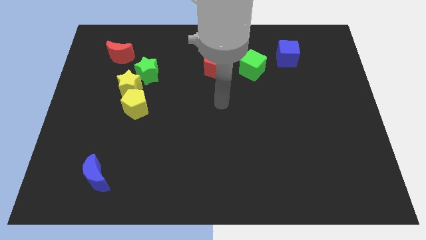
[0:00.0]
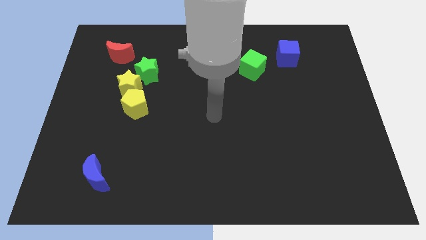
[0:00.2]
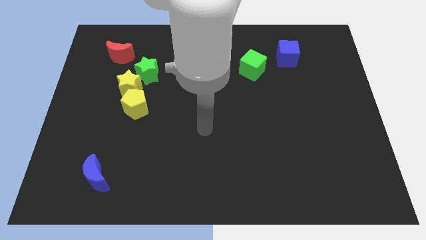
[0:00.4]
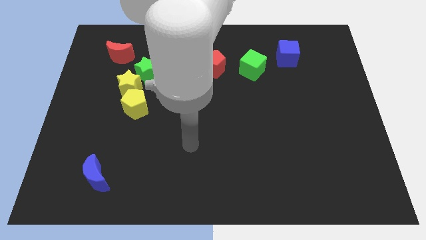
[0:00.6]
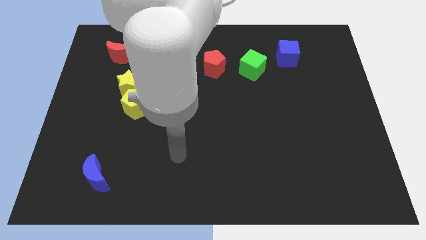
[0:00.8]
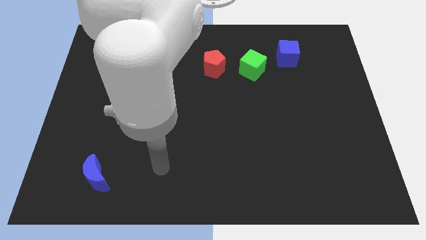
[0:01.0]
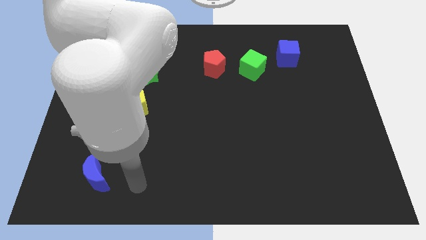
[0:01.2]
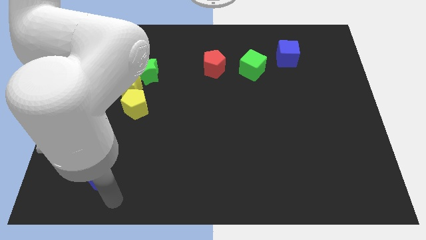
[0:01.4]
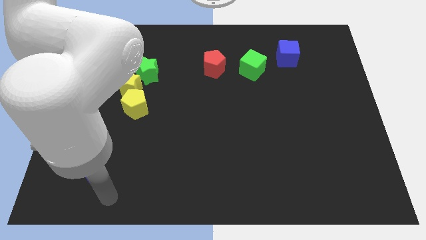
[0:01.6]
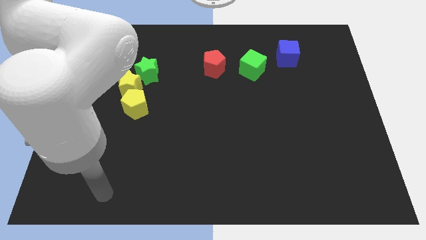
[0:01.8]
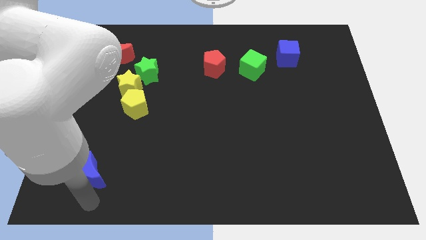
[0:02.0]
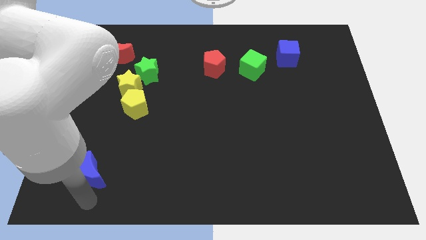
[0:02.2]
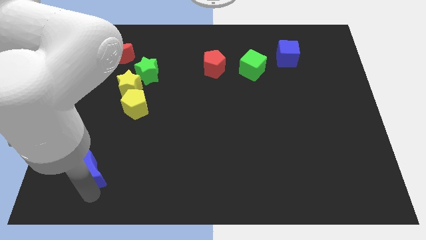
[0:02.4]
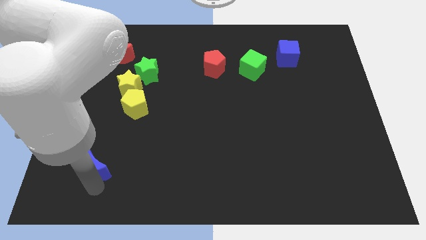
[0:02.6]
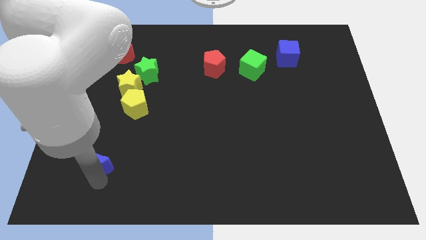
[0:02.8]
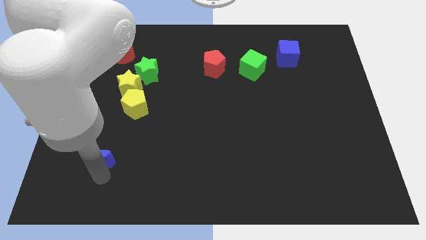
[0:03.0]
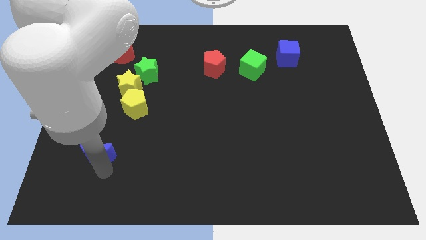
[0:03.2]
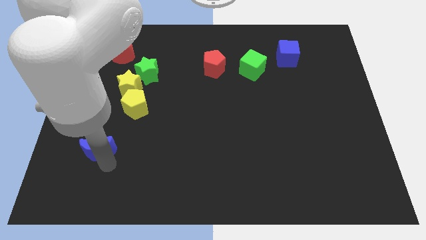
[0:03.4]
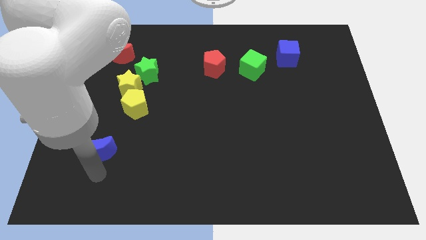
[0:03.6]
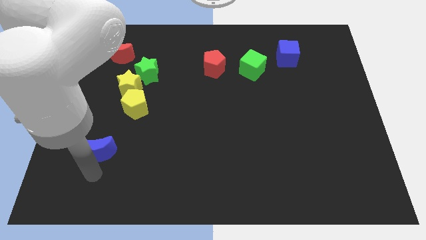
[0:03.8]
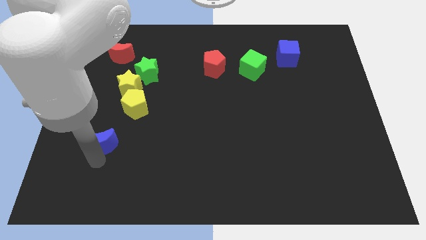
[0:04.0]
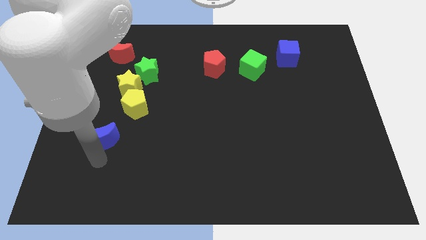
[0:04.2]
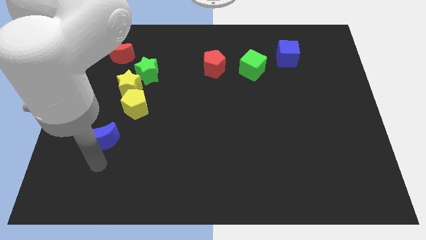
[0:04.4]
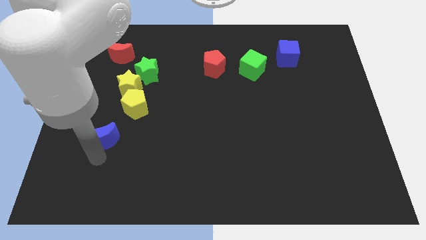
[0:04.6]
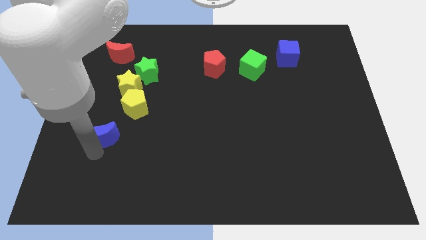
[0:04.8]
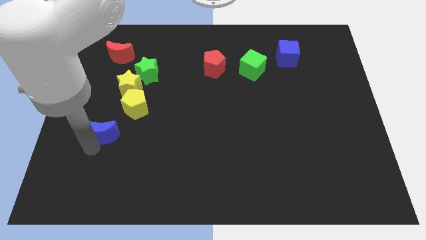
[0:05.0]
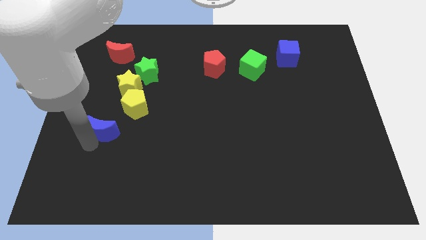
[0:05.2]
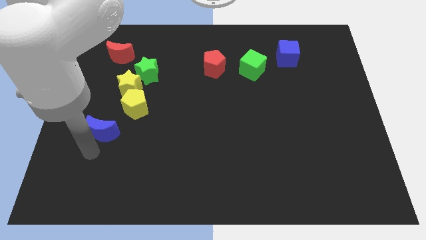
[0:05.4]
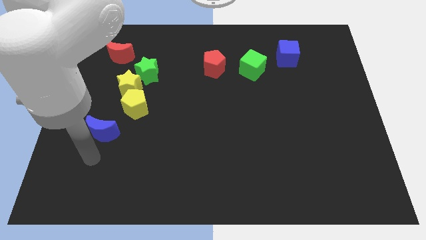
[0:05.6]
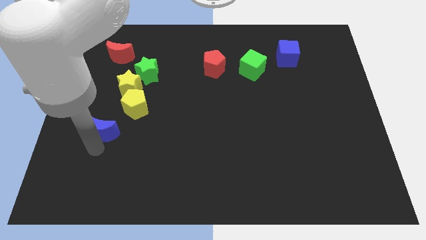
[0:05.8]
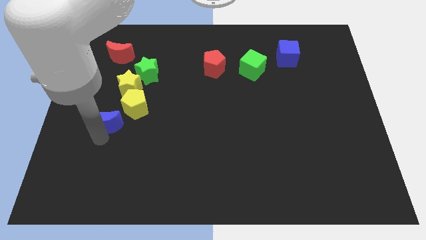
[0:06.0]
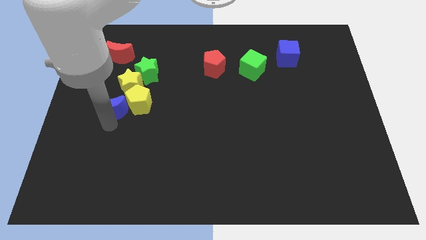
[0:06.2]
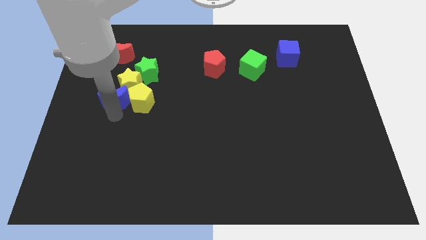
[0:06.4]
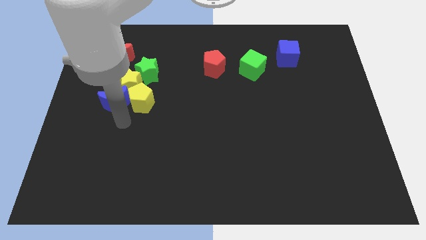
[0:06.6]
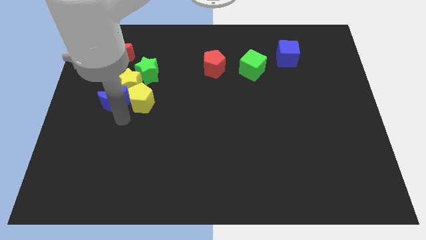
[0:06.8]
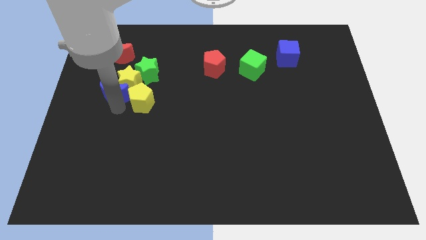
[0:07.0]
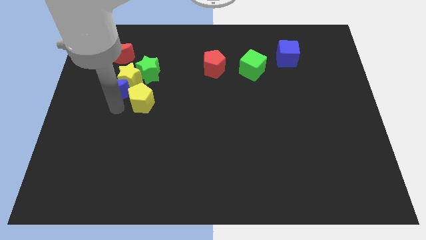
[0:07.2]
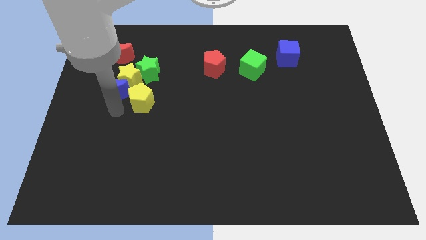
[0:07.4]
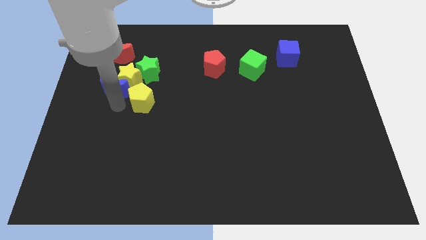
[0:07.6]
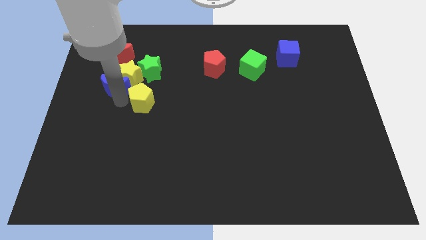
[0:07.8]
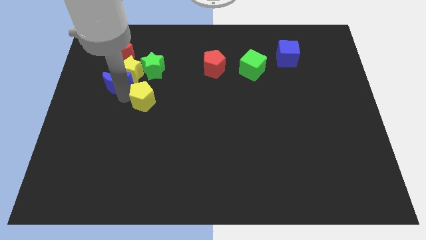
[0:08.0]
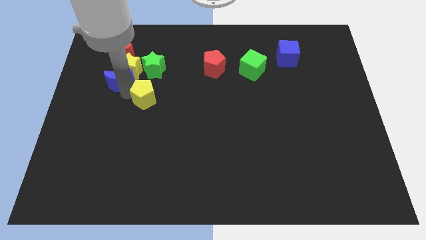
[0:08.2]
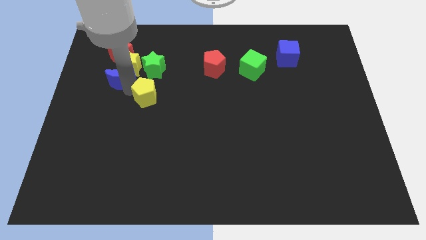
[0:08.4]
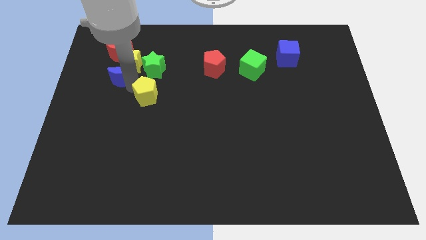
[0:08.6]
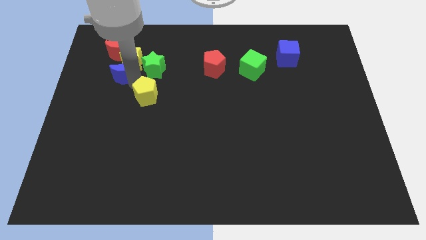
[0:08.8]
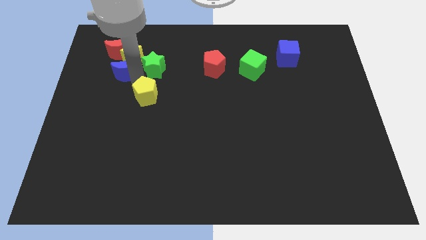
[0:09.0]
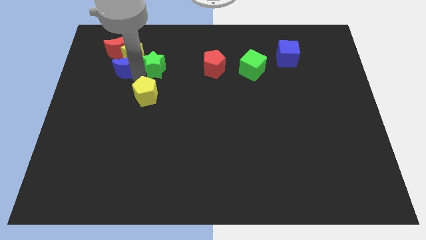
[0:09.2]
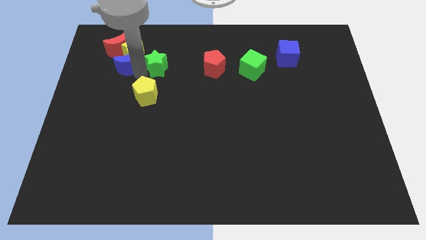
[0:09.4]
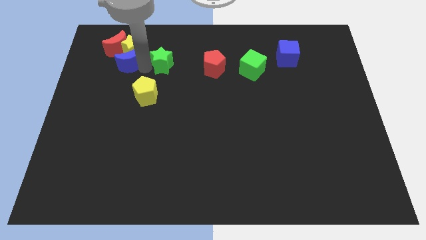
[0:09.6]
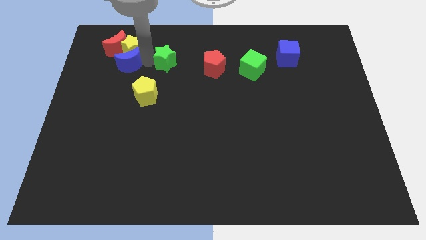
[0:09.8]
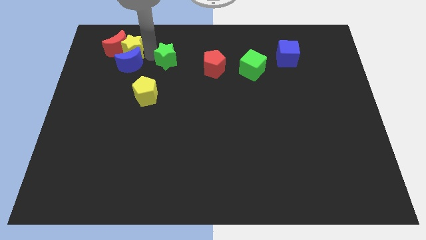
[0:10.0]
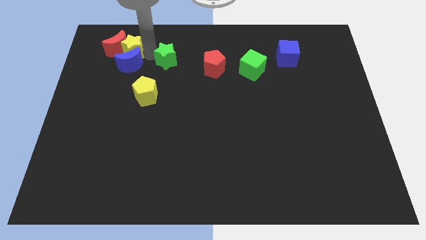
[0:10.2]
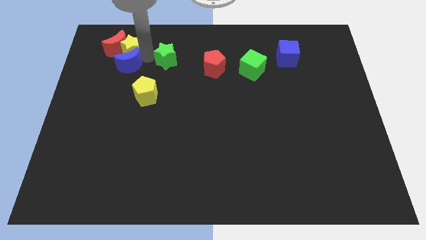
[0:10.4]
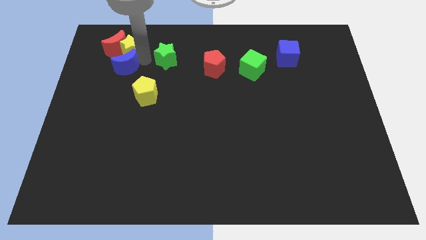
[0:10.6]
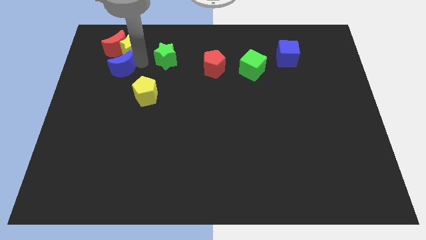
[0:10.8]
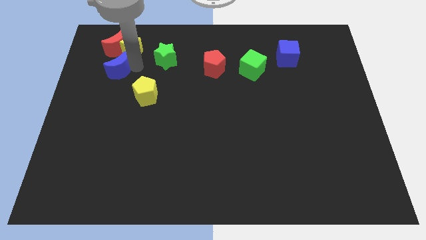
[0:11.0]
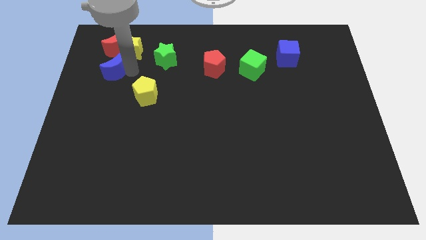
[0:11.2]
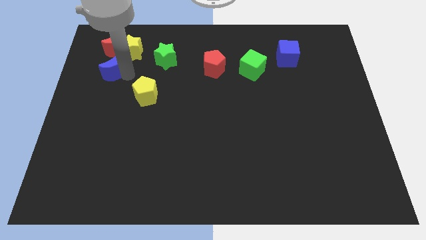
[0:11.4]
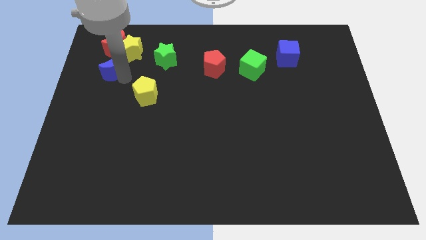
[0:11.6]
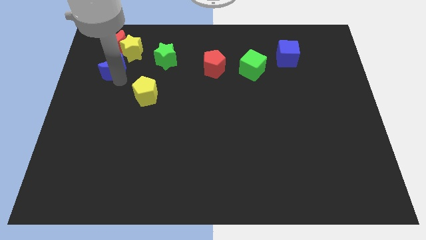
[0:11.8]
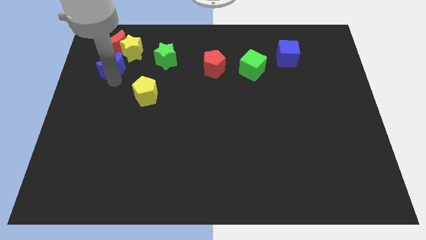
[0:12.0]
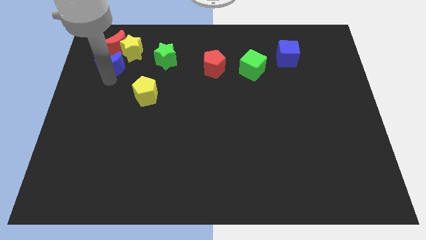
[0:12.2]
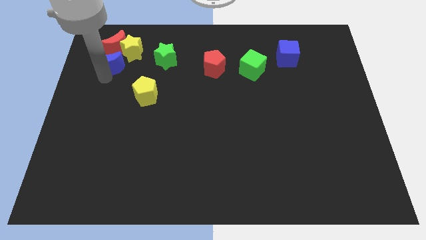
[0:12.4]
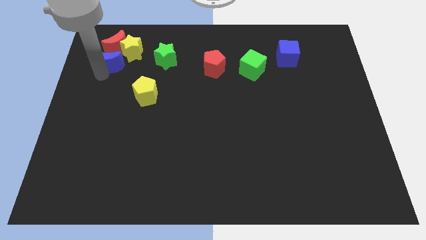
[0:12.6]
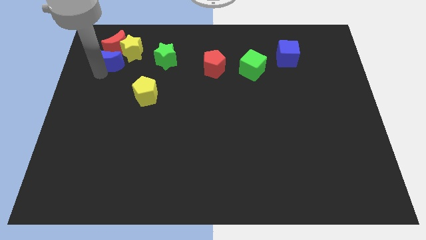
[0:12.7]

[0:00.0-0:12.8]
move the blue moon close to the red moon

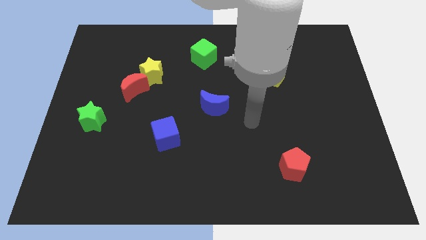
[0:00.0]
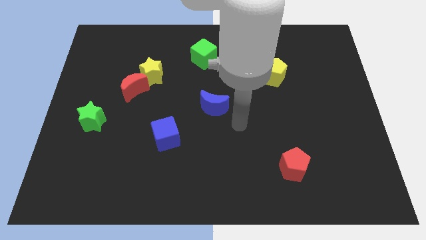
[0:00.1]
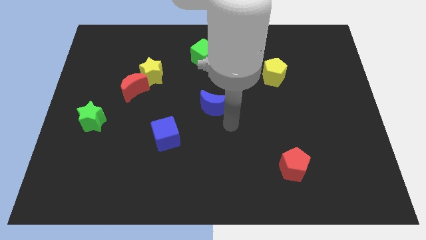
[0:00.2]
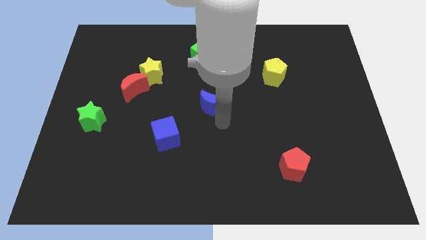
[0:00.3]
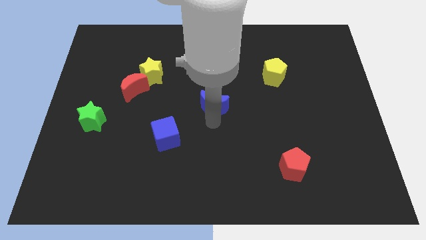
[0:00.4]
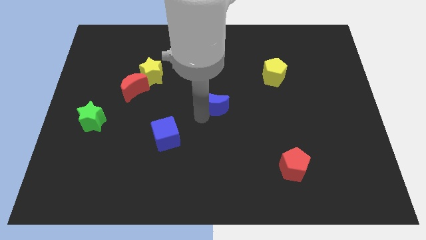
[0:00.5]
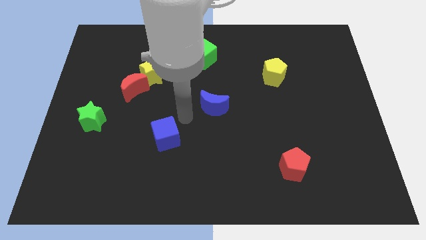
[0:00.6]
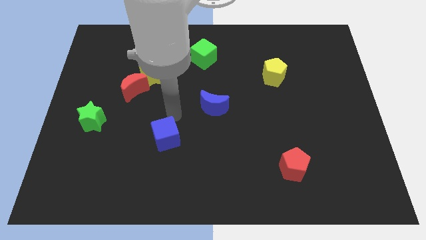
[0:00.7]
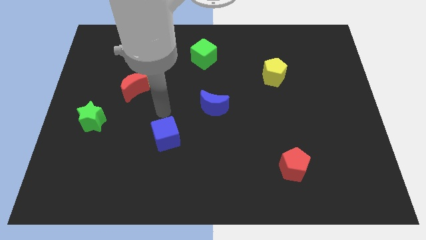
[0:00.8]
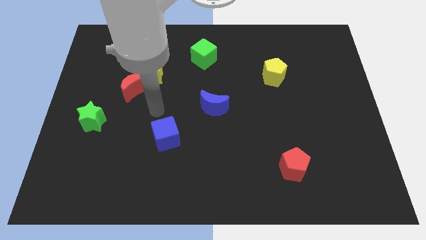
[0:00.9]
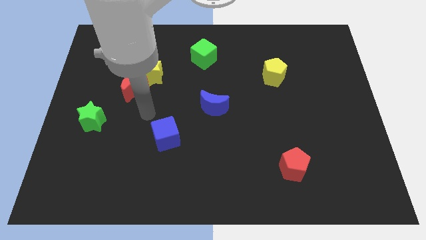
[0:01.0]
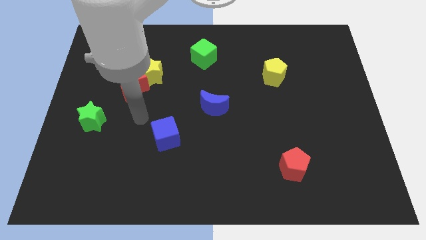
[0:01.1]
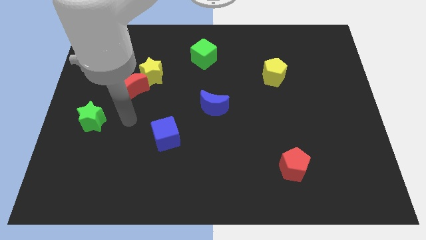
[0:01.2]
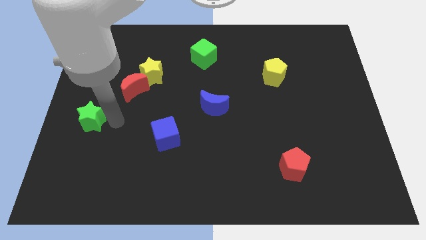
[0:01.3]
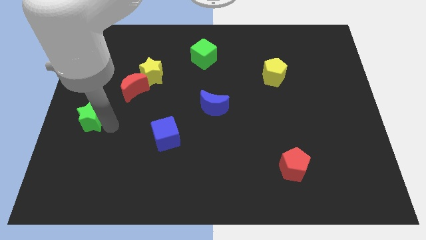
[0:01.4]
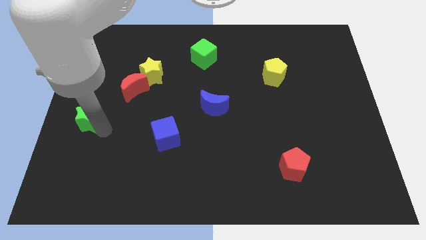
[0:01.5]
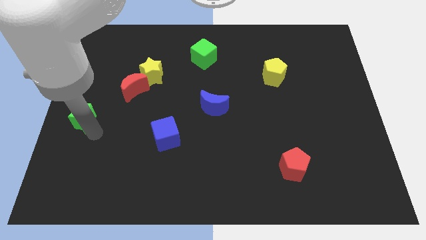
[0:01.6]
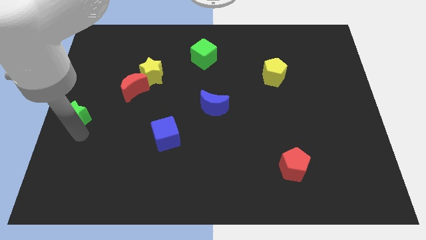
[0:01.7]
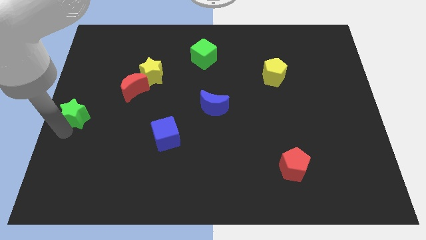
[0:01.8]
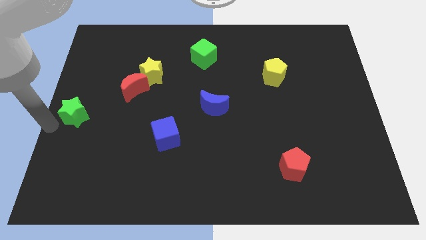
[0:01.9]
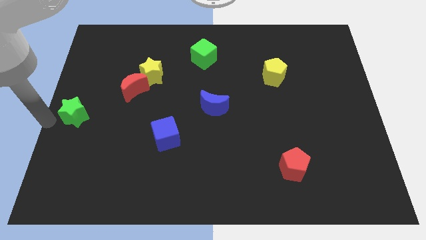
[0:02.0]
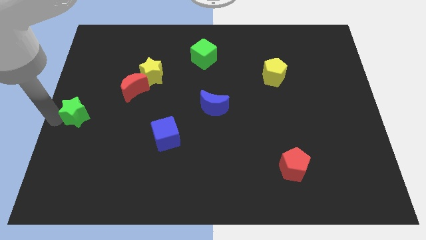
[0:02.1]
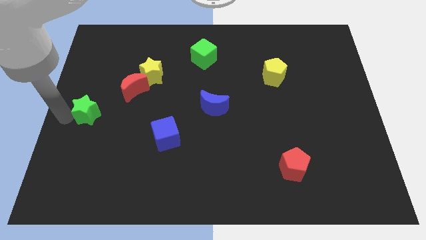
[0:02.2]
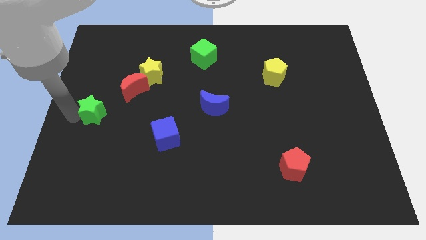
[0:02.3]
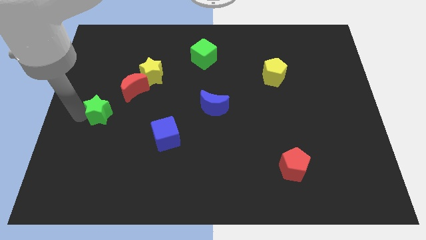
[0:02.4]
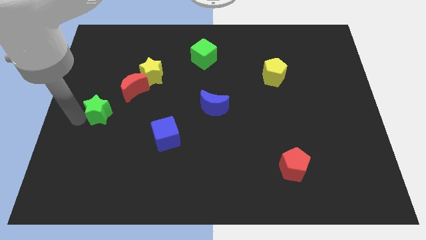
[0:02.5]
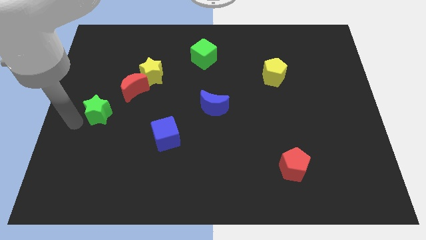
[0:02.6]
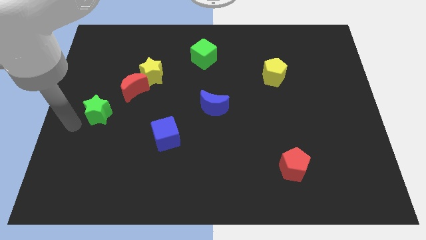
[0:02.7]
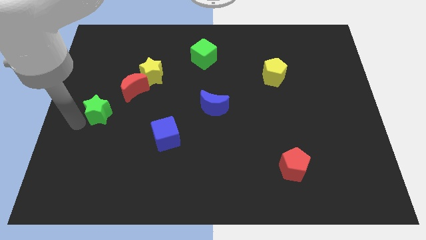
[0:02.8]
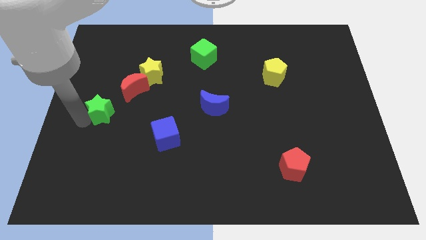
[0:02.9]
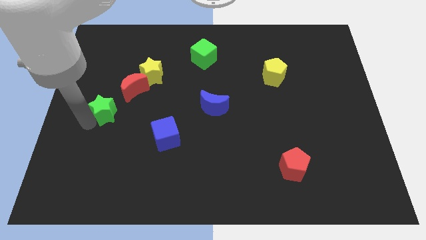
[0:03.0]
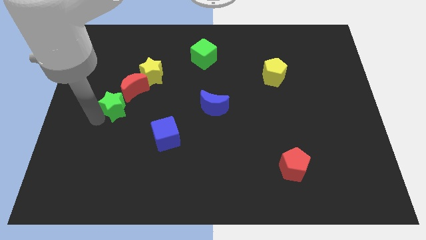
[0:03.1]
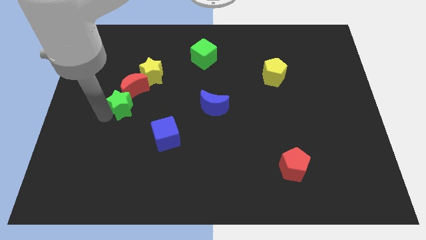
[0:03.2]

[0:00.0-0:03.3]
move the green star next to the red moon
